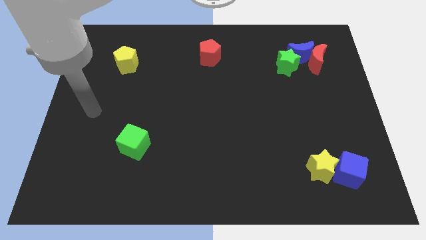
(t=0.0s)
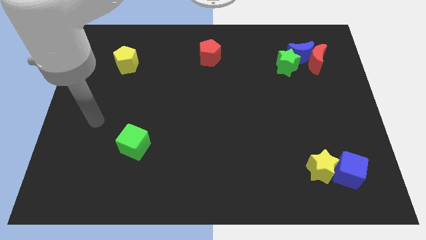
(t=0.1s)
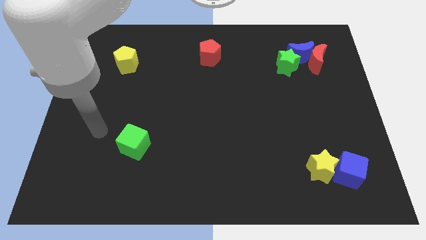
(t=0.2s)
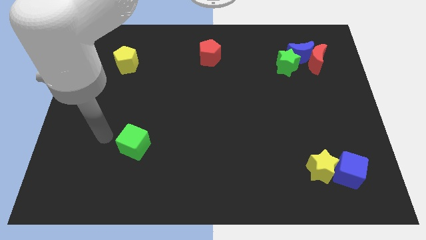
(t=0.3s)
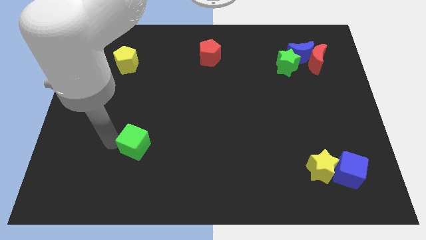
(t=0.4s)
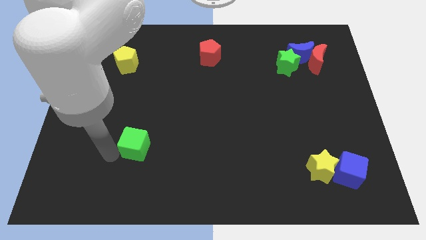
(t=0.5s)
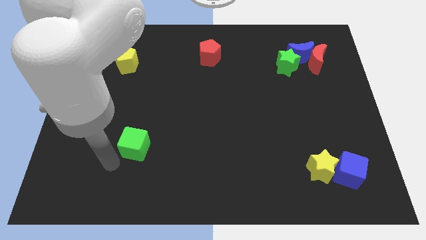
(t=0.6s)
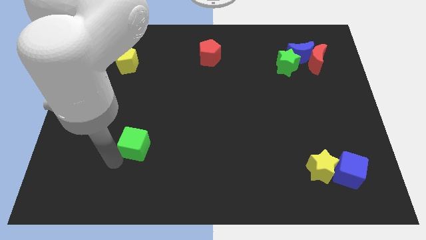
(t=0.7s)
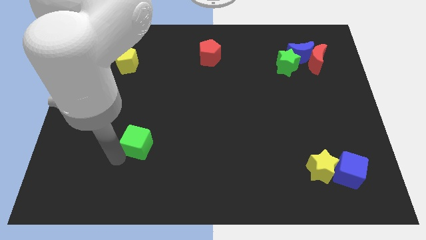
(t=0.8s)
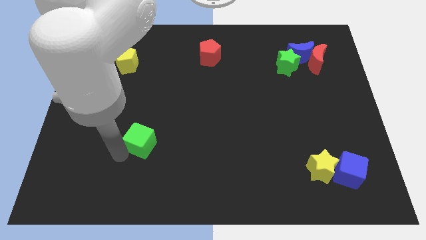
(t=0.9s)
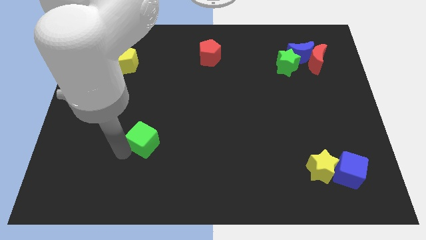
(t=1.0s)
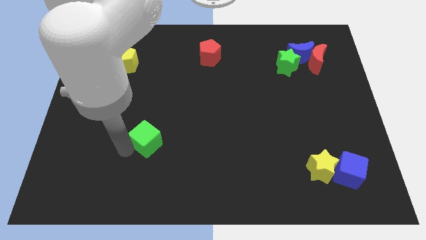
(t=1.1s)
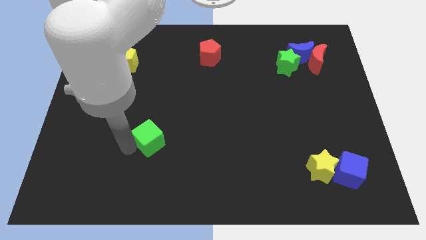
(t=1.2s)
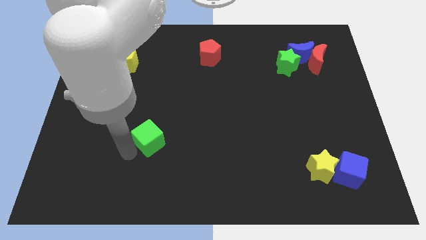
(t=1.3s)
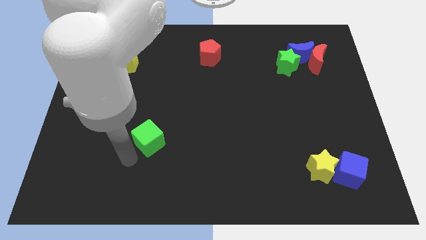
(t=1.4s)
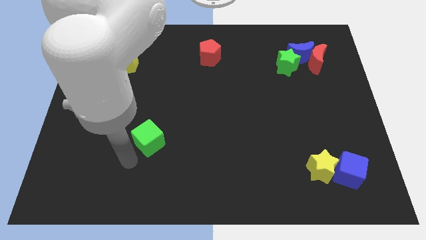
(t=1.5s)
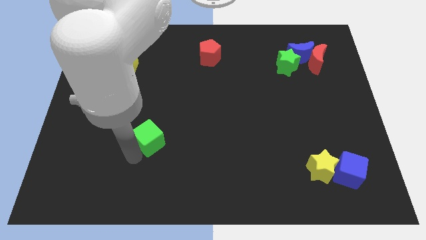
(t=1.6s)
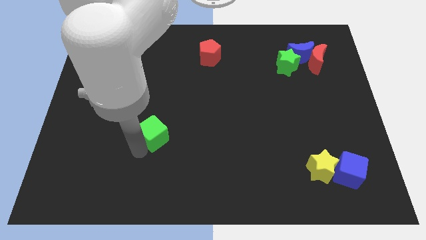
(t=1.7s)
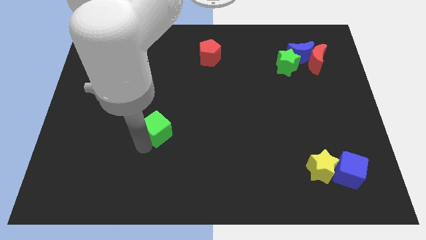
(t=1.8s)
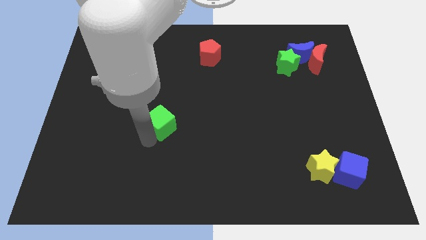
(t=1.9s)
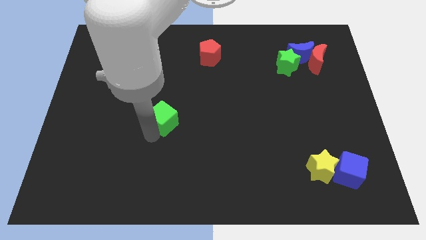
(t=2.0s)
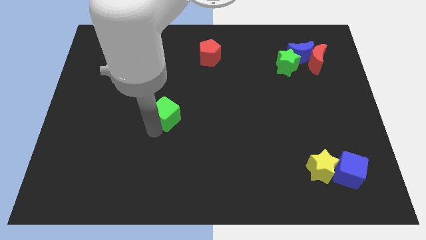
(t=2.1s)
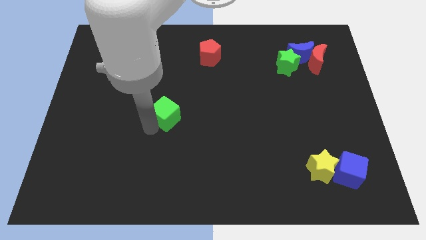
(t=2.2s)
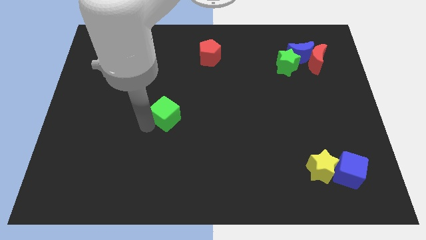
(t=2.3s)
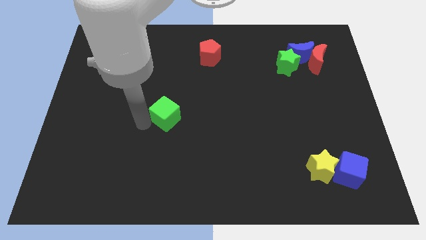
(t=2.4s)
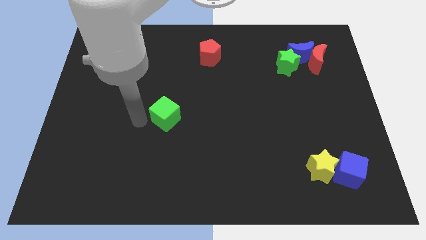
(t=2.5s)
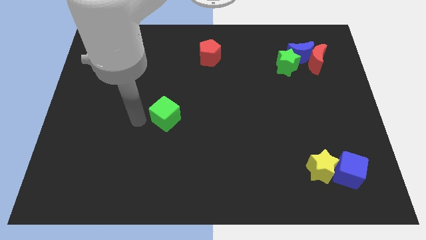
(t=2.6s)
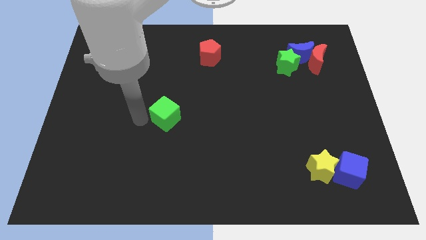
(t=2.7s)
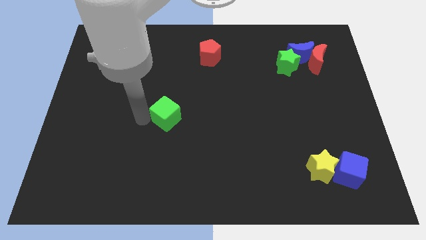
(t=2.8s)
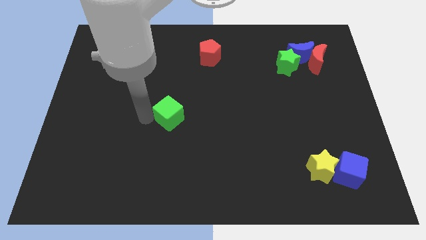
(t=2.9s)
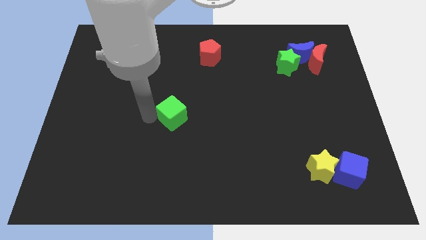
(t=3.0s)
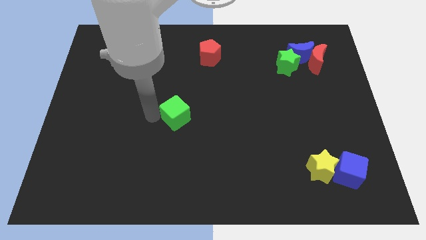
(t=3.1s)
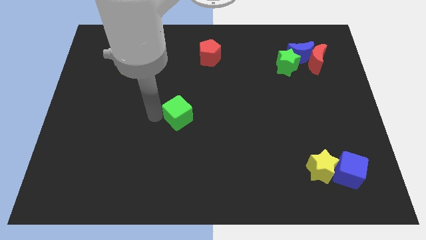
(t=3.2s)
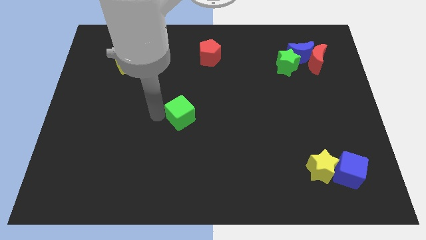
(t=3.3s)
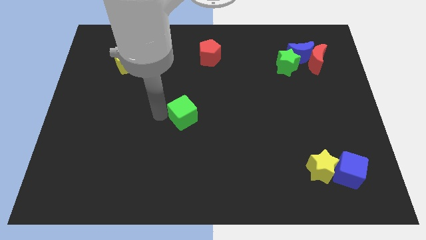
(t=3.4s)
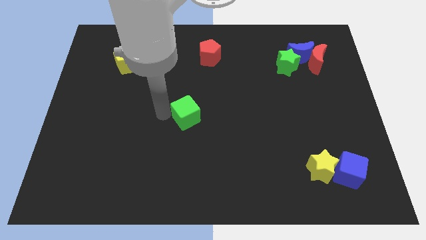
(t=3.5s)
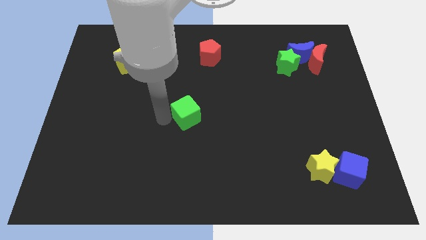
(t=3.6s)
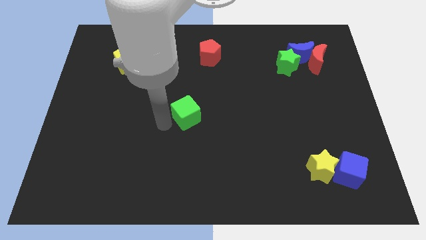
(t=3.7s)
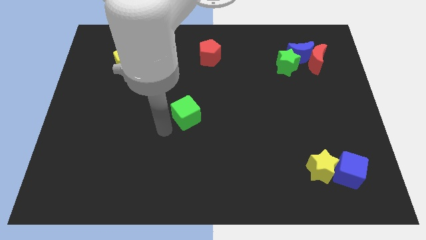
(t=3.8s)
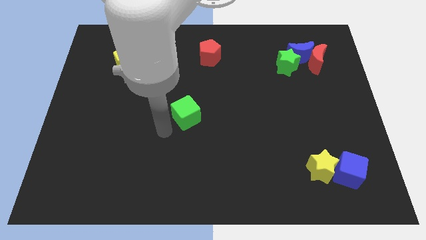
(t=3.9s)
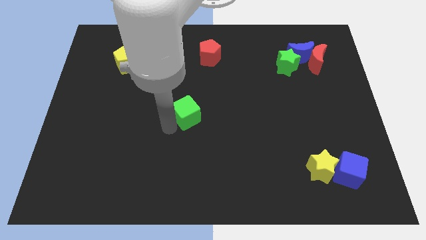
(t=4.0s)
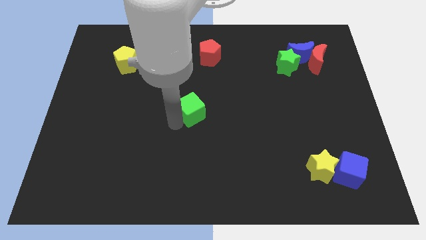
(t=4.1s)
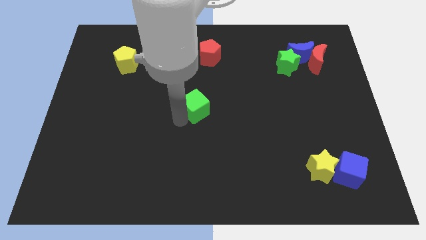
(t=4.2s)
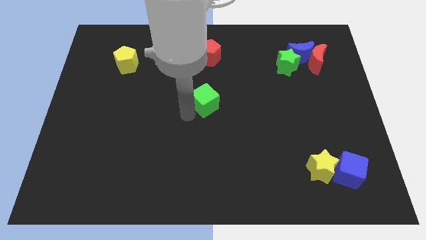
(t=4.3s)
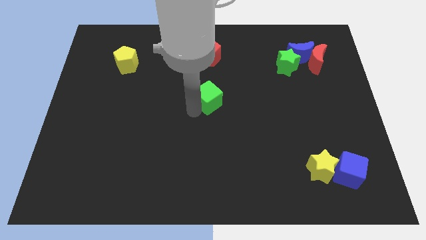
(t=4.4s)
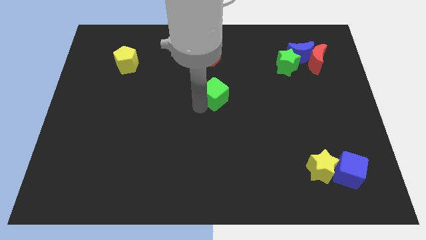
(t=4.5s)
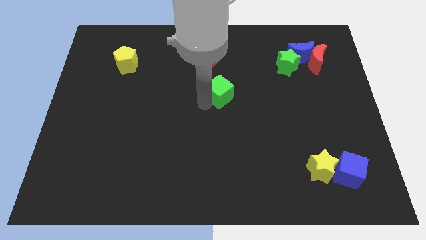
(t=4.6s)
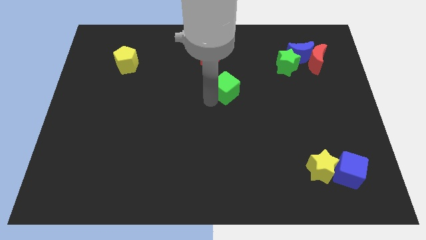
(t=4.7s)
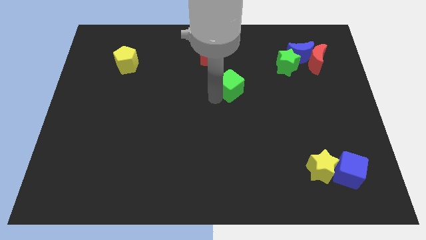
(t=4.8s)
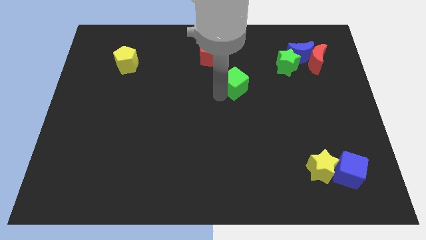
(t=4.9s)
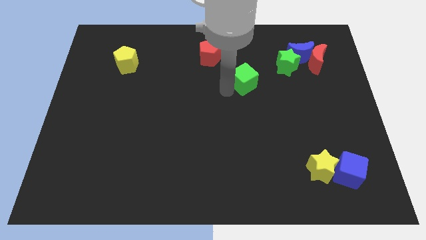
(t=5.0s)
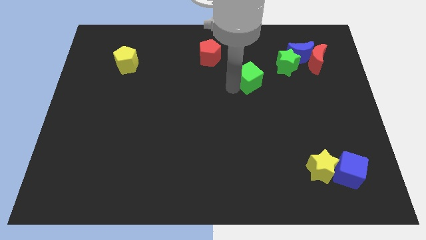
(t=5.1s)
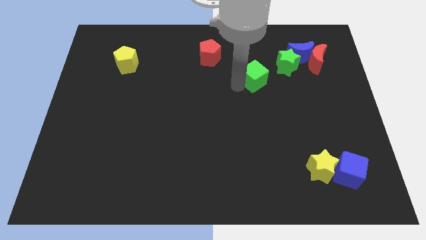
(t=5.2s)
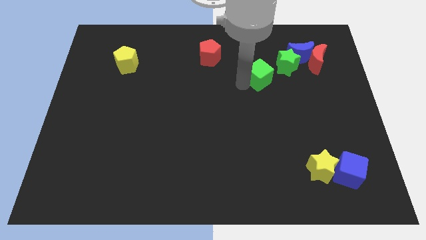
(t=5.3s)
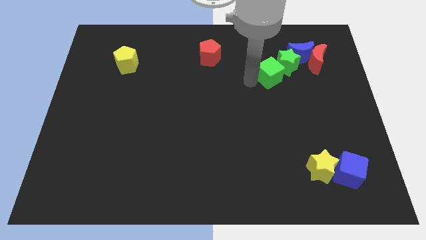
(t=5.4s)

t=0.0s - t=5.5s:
move the green cube to the green star

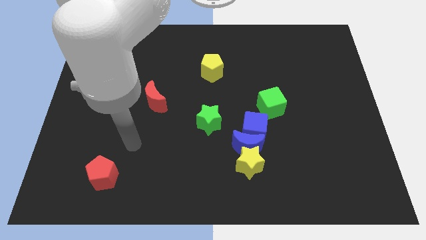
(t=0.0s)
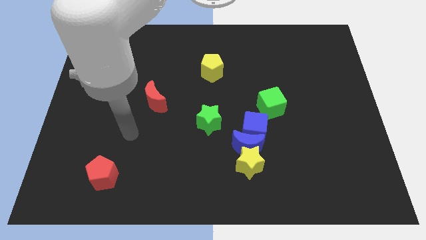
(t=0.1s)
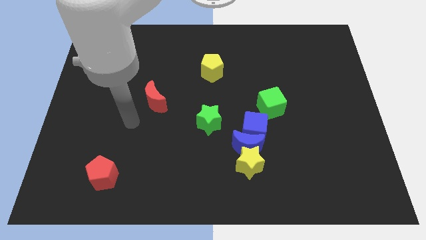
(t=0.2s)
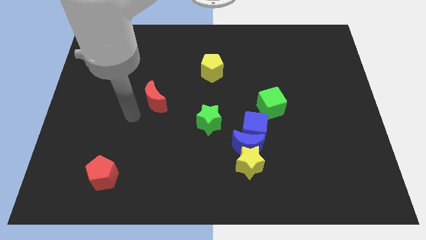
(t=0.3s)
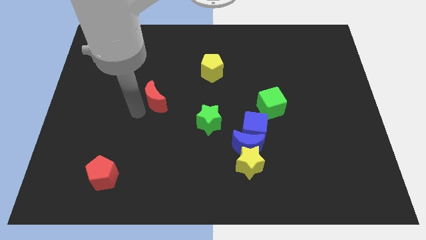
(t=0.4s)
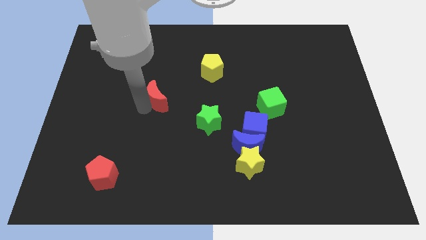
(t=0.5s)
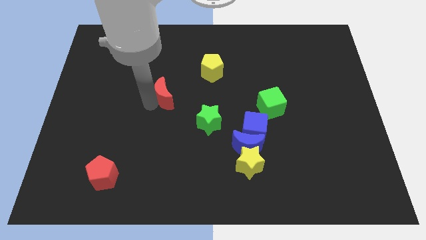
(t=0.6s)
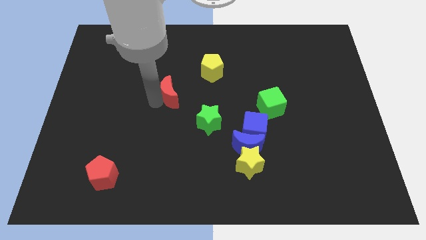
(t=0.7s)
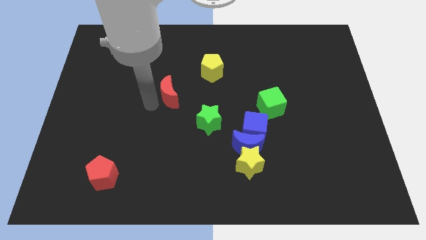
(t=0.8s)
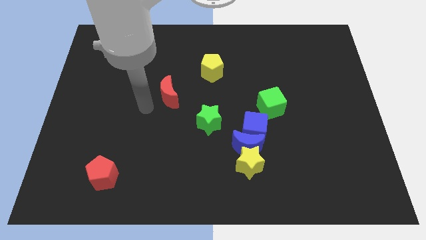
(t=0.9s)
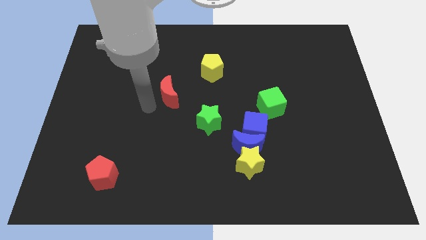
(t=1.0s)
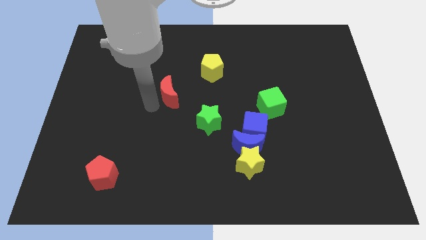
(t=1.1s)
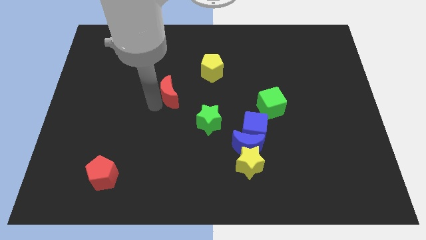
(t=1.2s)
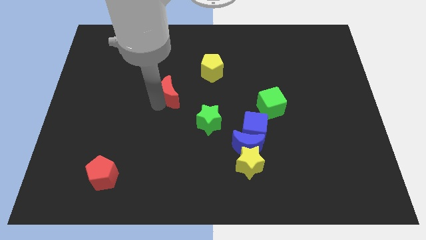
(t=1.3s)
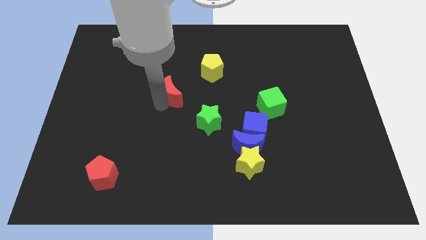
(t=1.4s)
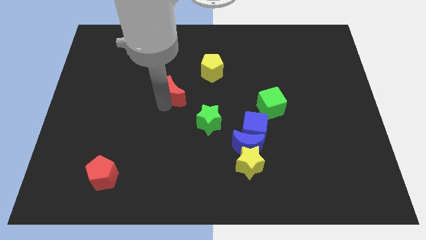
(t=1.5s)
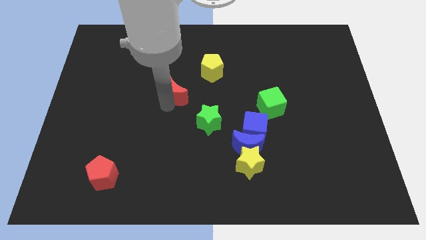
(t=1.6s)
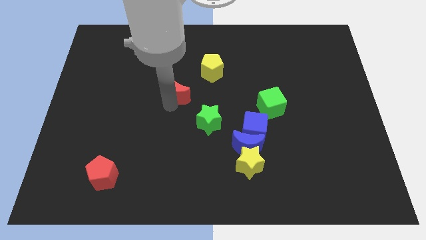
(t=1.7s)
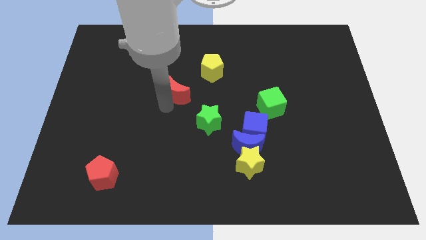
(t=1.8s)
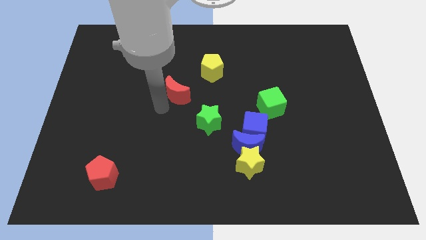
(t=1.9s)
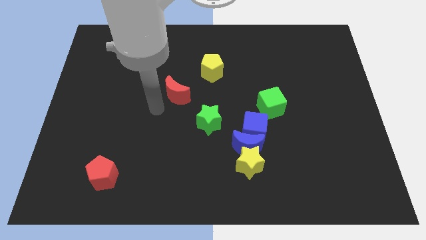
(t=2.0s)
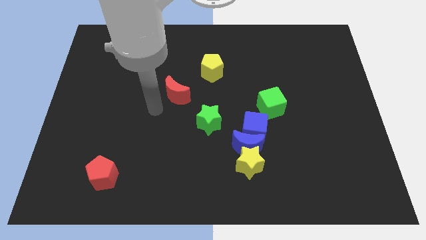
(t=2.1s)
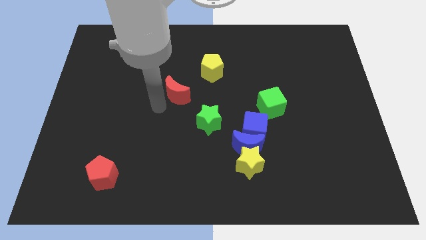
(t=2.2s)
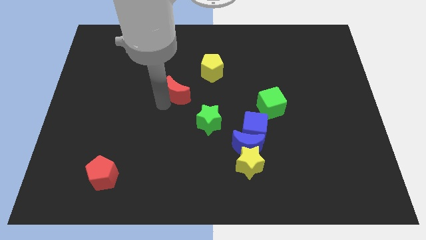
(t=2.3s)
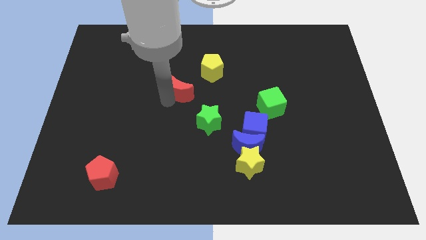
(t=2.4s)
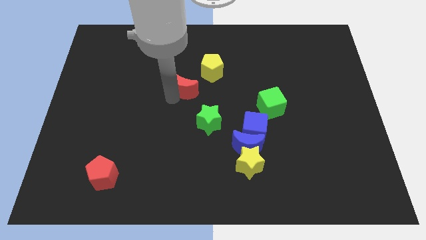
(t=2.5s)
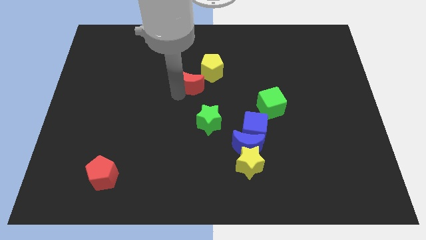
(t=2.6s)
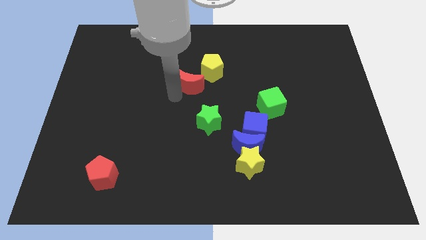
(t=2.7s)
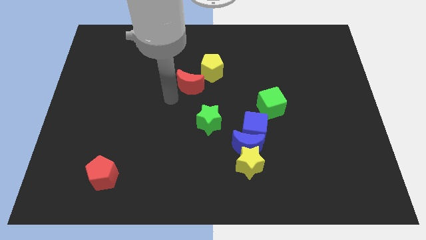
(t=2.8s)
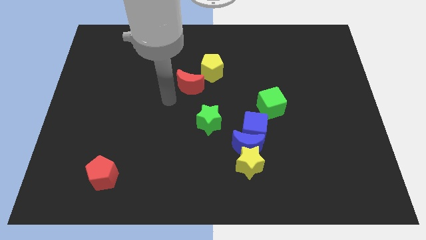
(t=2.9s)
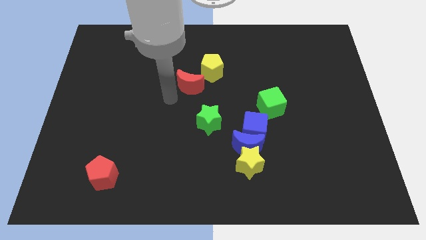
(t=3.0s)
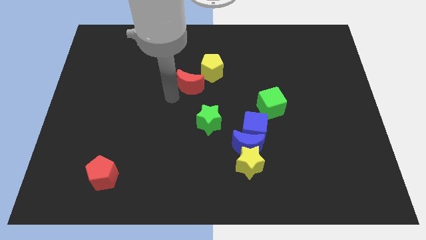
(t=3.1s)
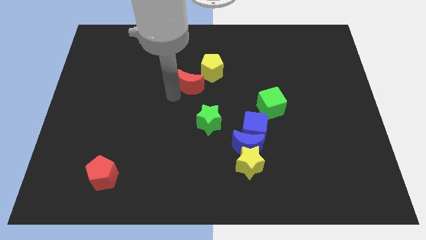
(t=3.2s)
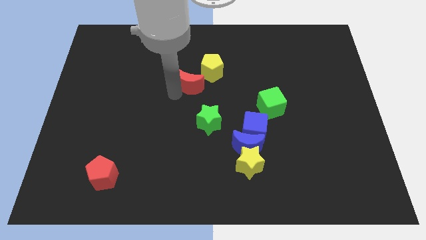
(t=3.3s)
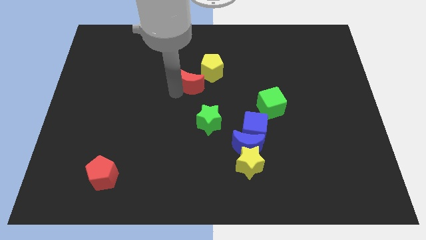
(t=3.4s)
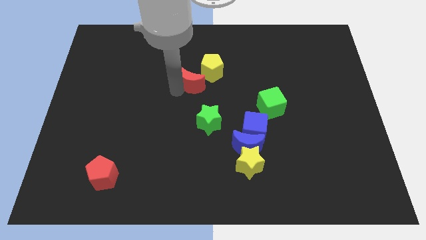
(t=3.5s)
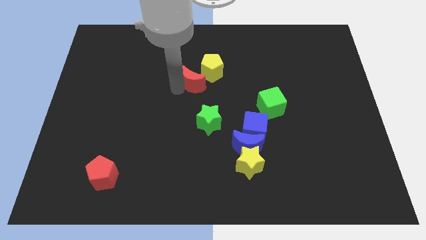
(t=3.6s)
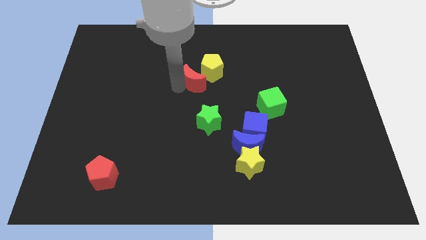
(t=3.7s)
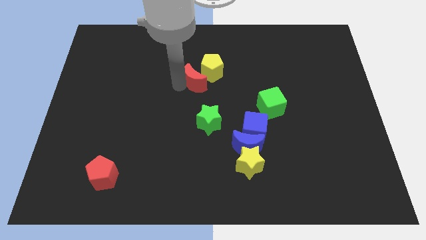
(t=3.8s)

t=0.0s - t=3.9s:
push the red moon next to the yellow pentagon
